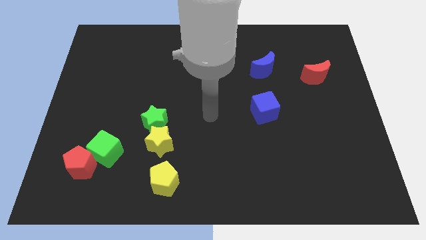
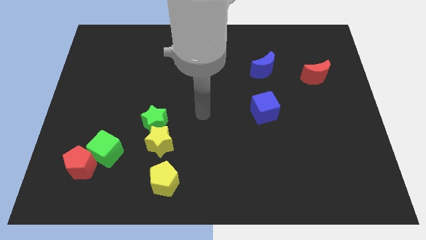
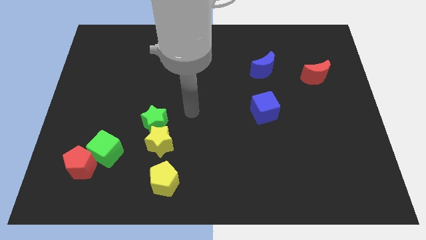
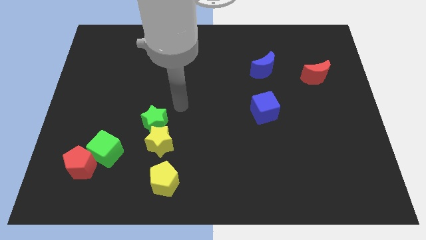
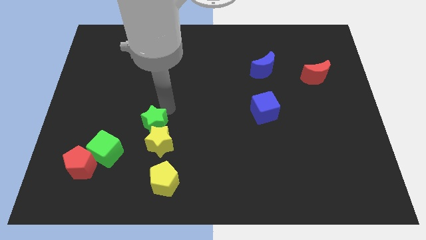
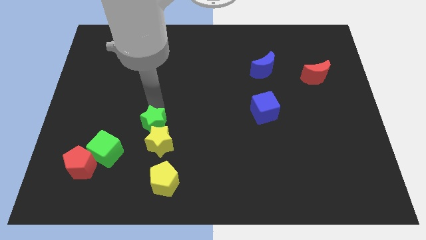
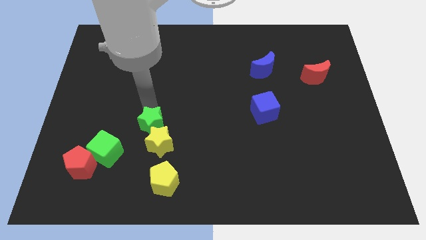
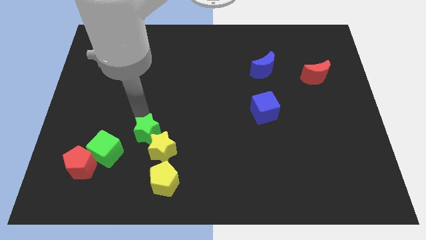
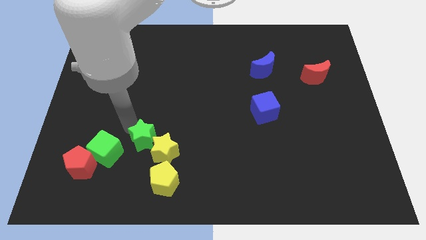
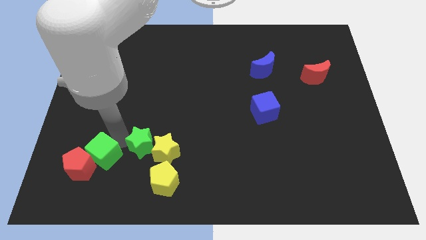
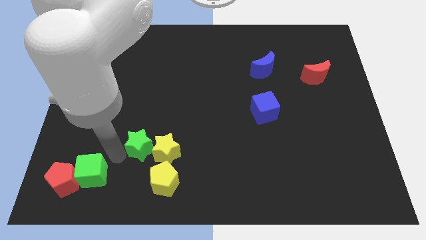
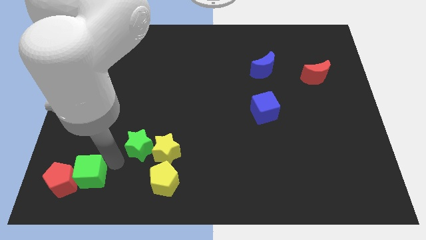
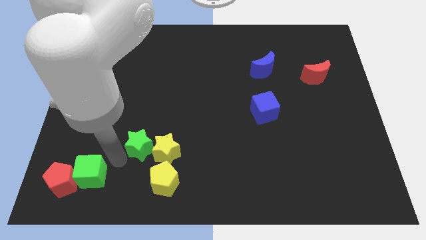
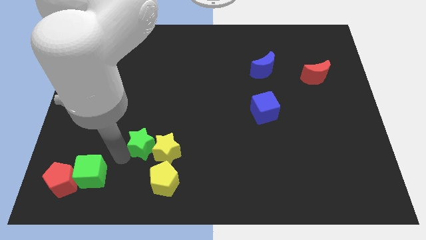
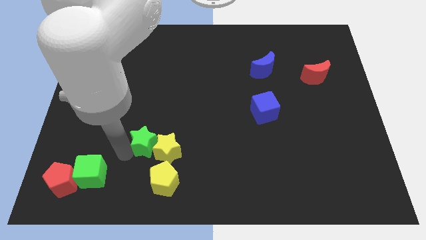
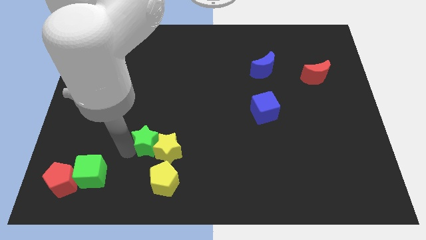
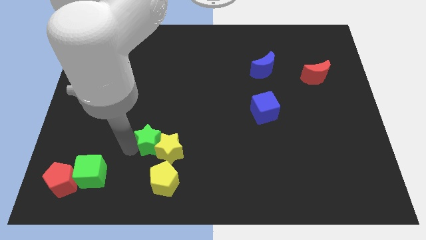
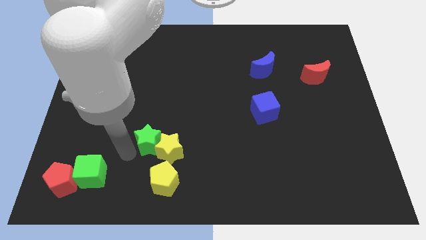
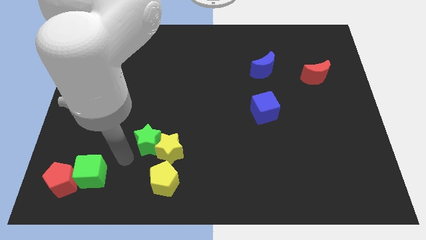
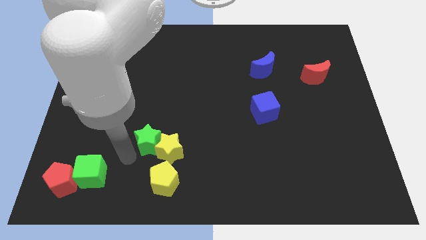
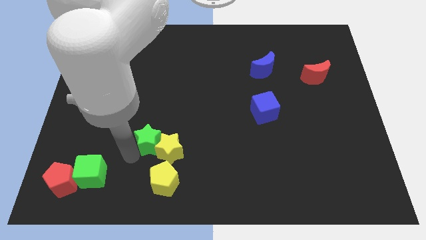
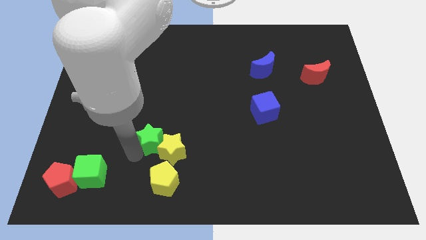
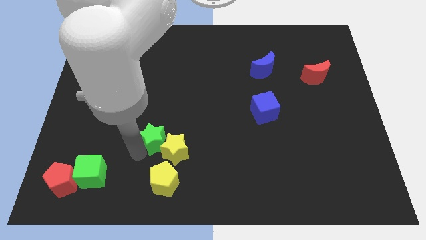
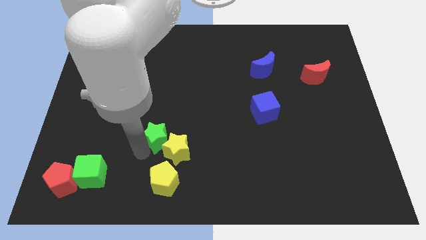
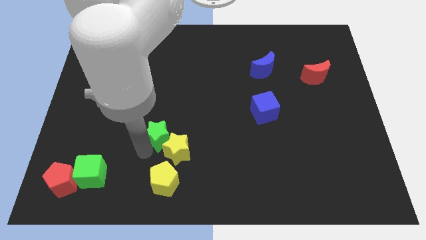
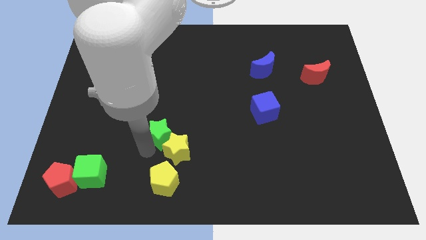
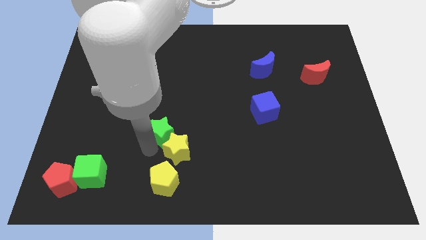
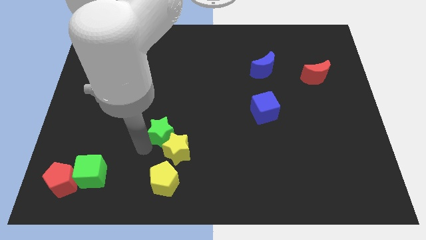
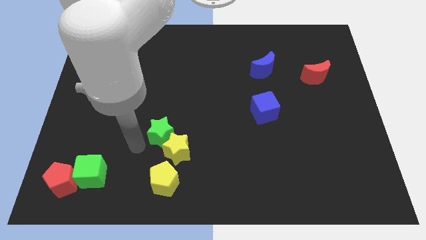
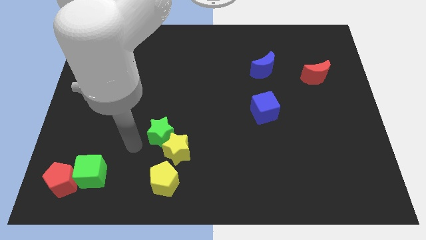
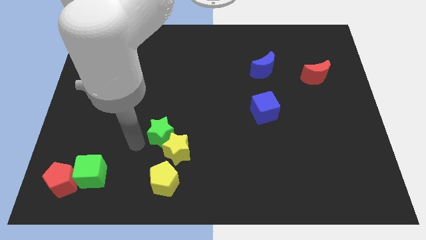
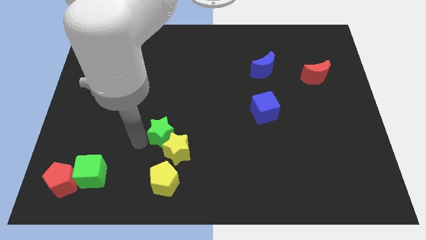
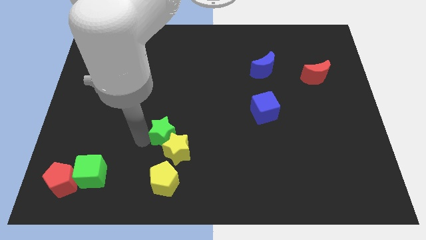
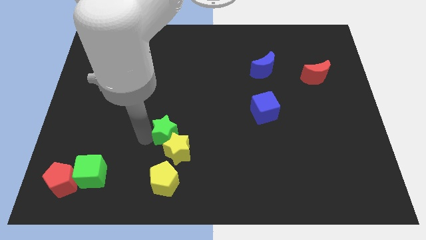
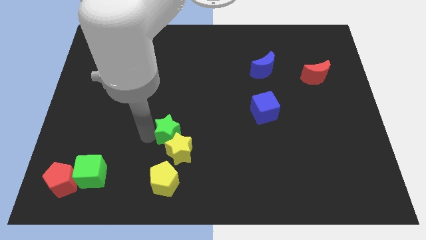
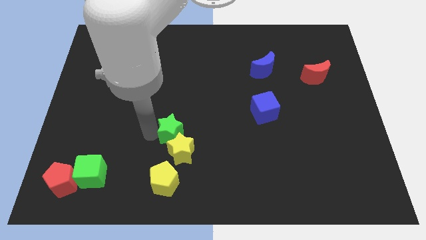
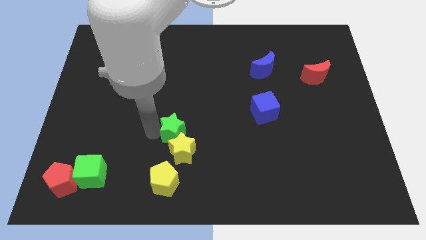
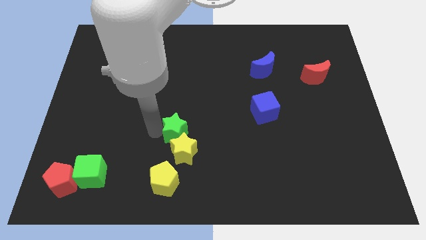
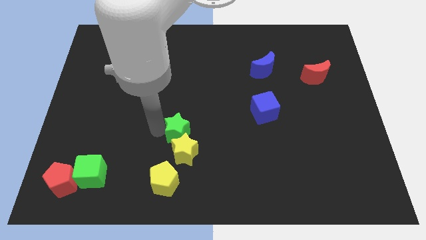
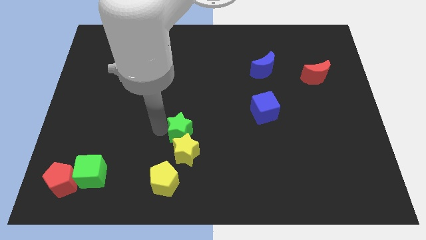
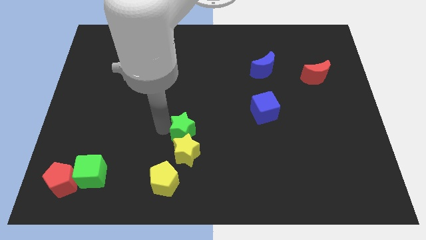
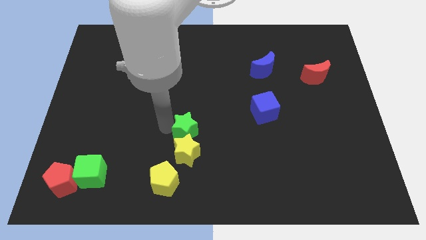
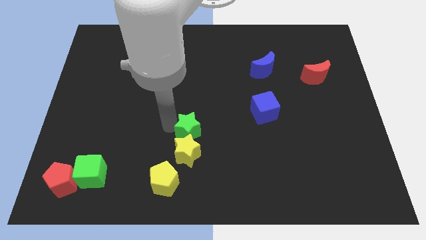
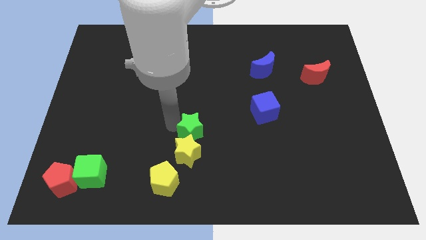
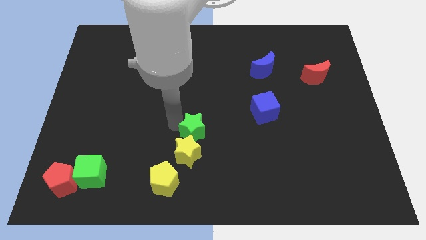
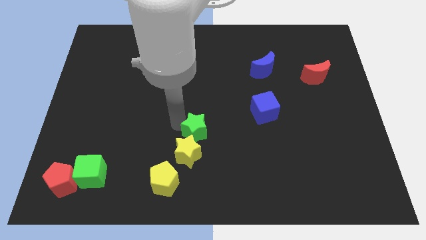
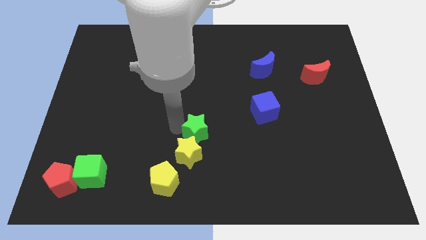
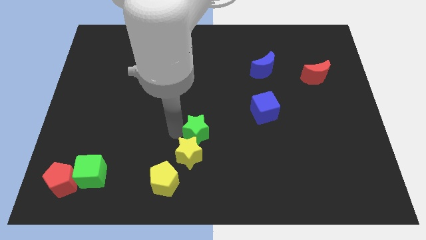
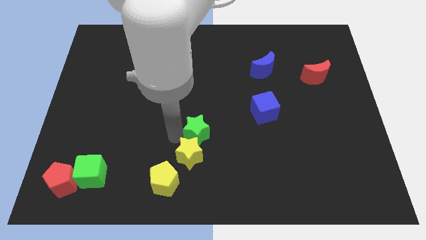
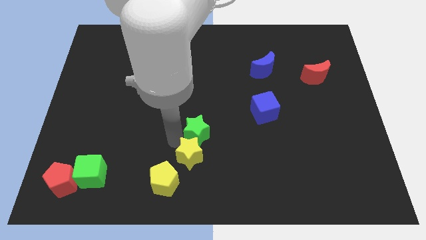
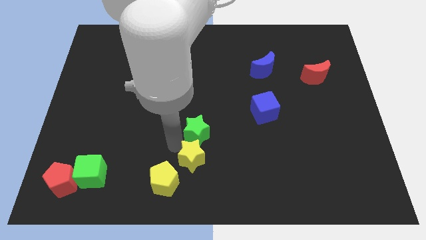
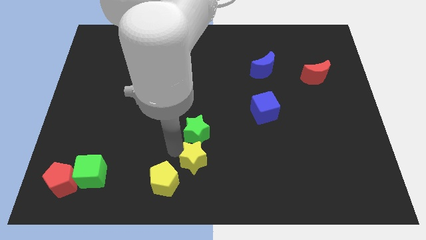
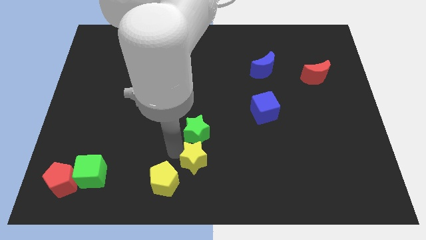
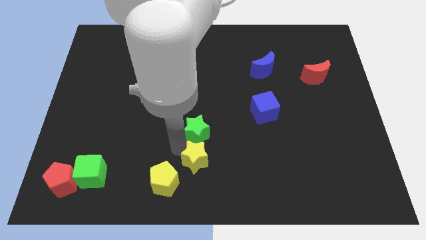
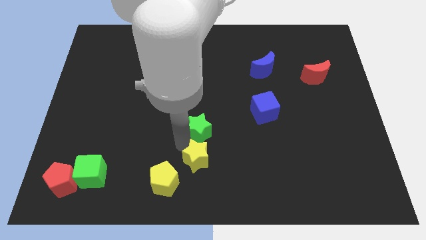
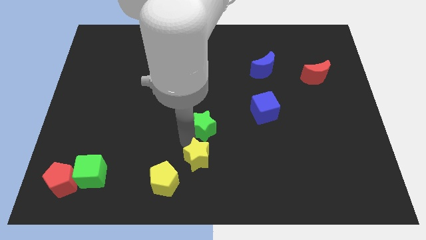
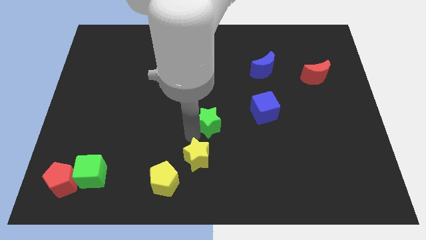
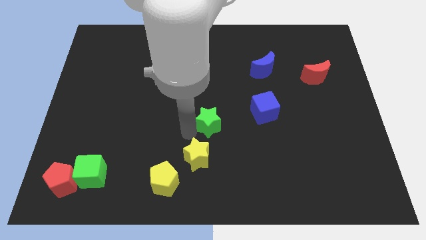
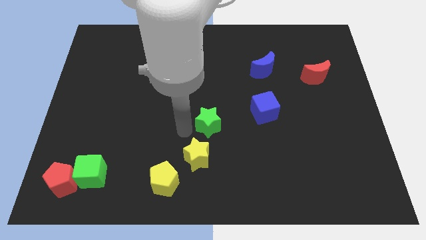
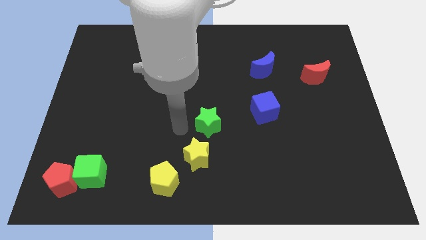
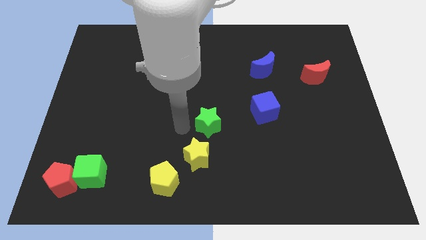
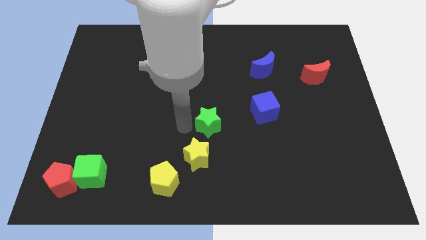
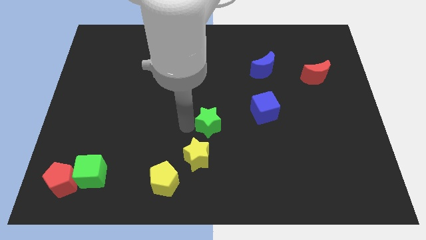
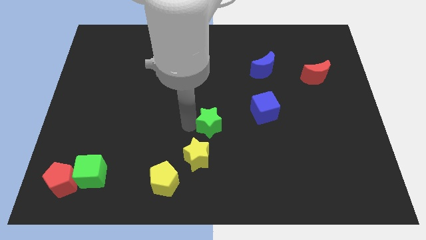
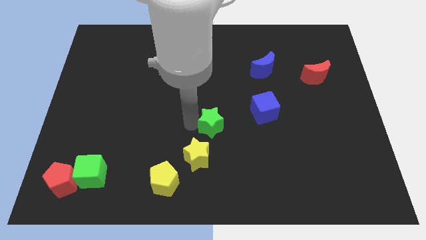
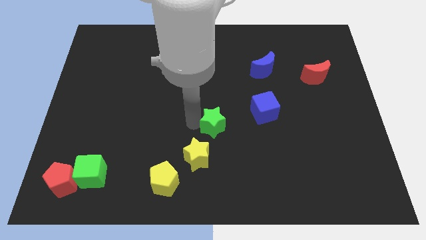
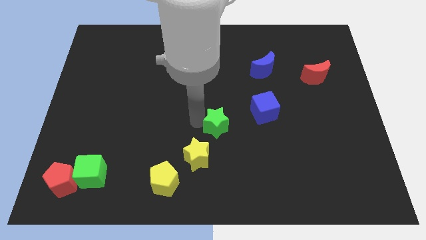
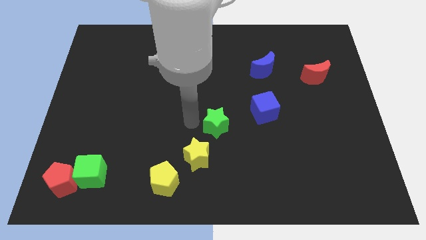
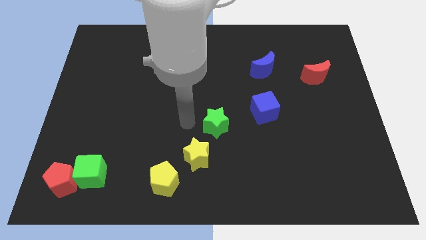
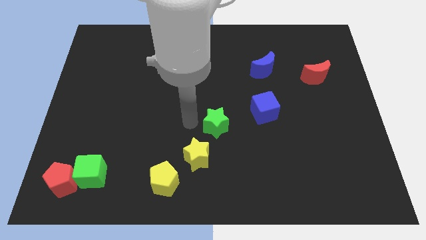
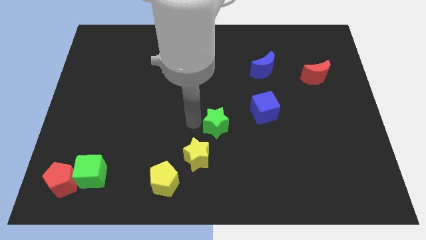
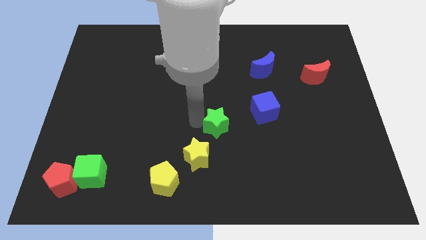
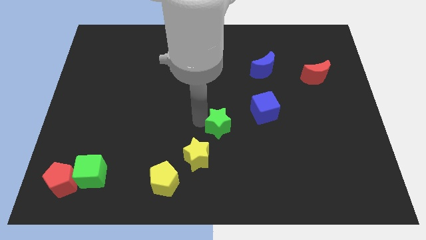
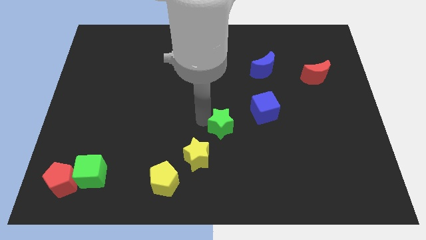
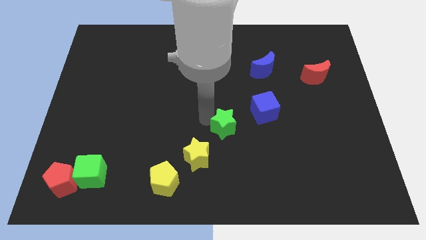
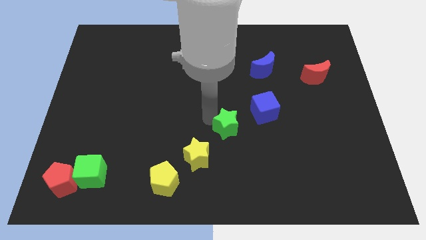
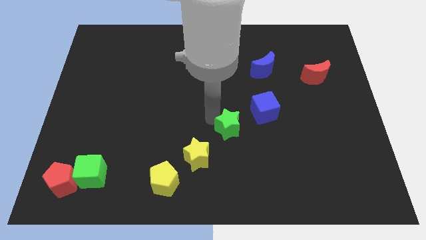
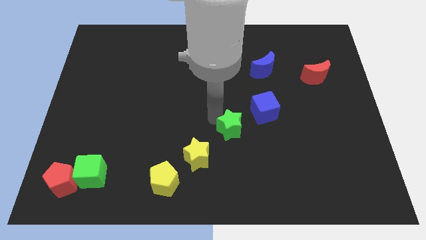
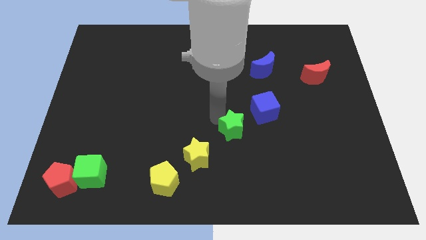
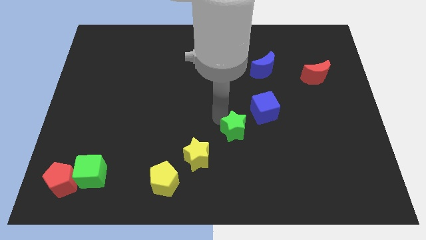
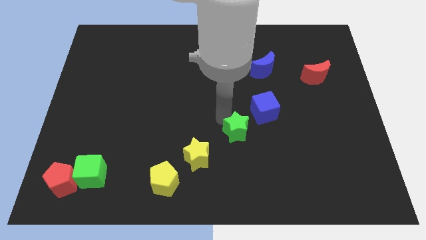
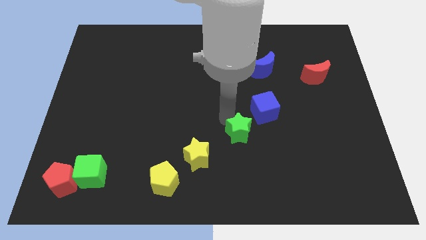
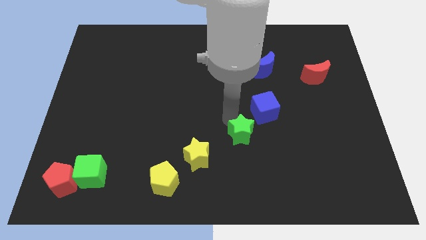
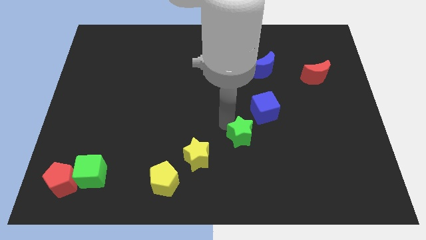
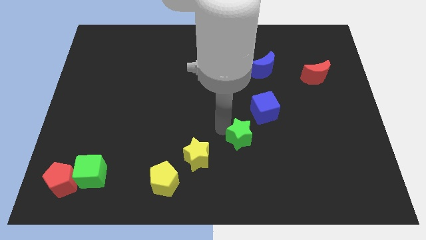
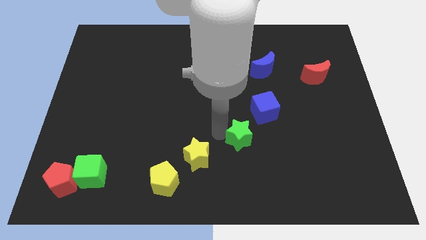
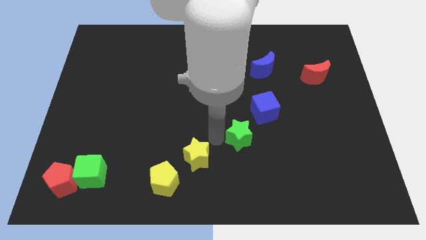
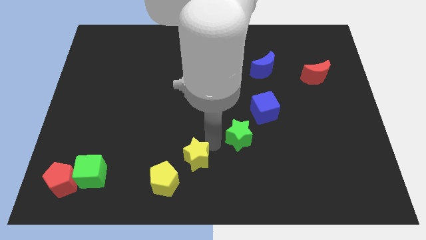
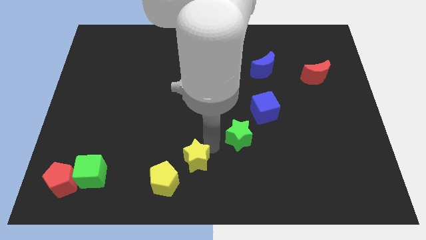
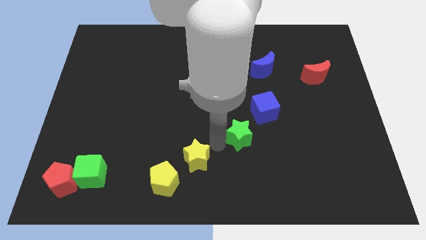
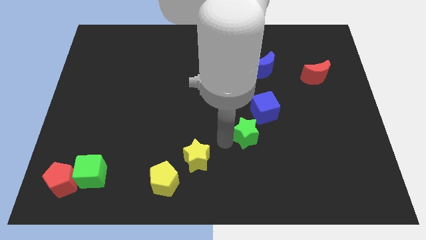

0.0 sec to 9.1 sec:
slide the green star to the right
